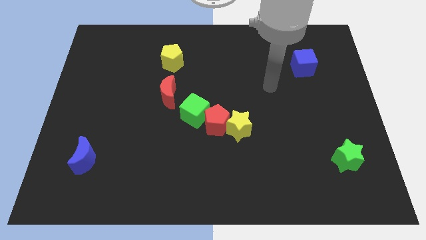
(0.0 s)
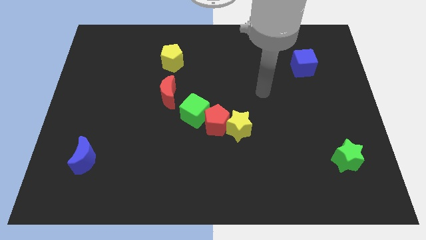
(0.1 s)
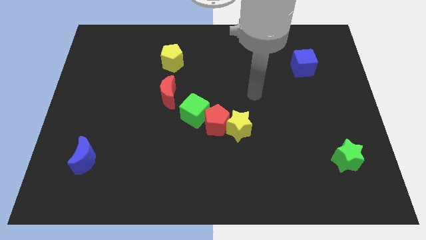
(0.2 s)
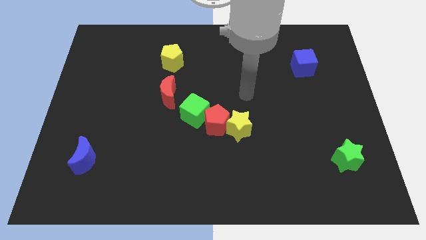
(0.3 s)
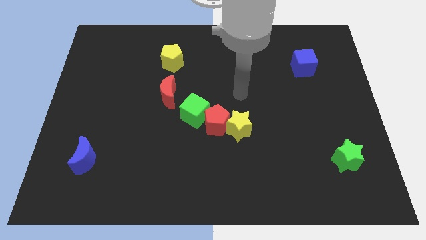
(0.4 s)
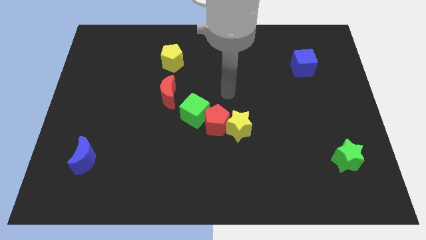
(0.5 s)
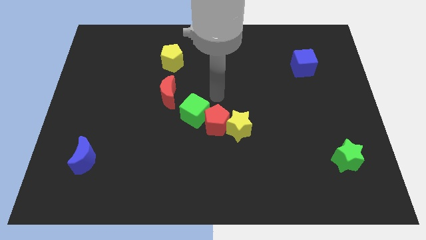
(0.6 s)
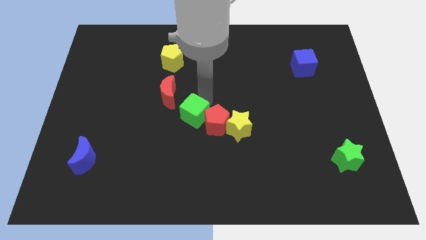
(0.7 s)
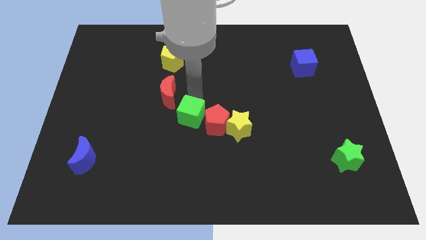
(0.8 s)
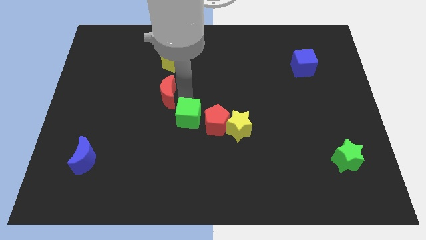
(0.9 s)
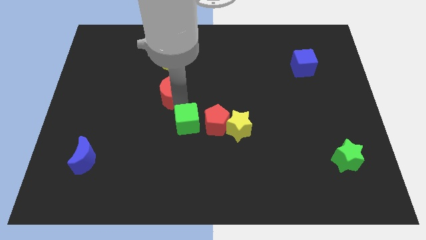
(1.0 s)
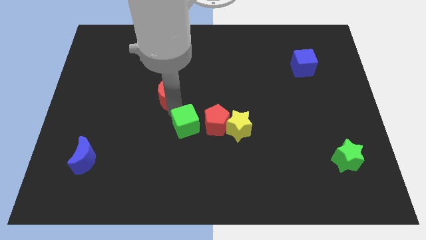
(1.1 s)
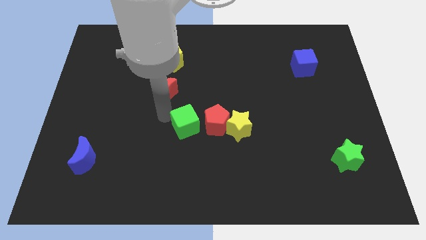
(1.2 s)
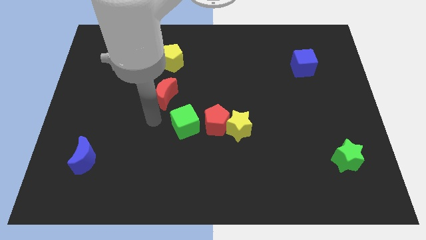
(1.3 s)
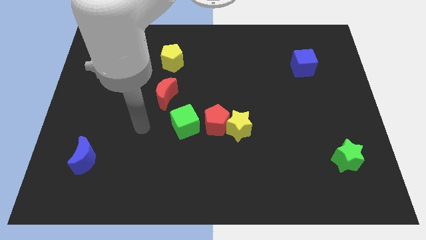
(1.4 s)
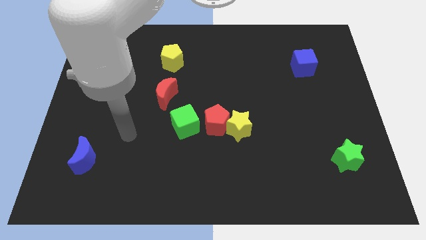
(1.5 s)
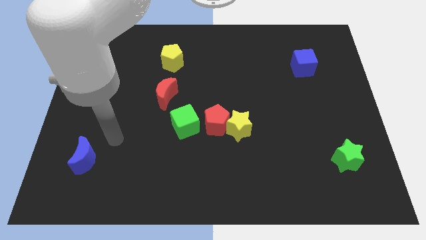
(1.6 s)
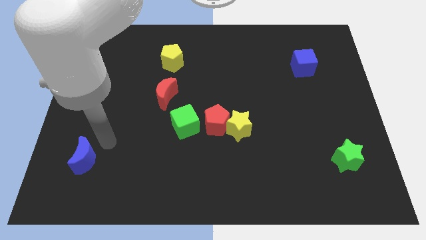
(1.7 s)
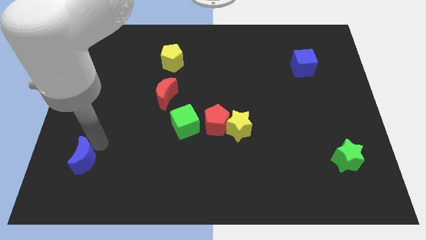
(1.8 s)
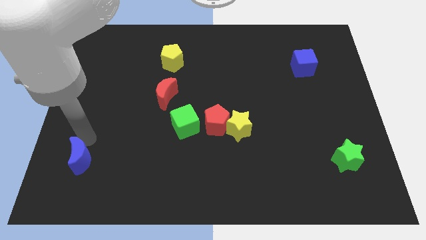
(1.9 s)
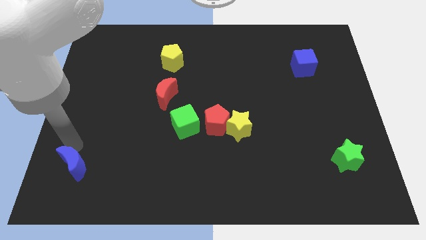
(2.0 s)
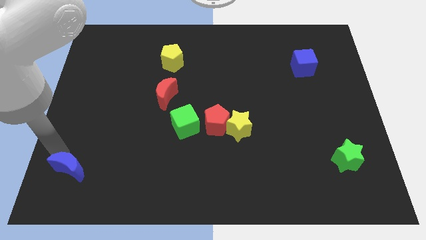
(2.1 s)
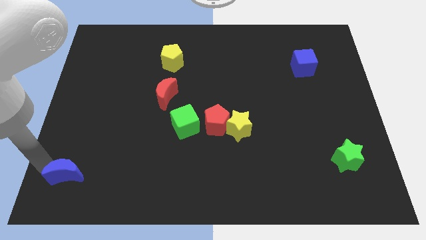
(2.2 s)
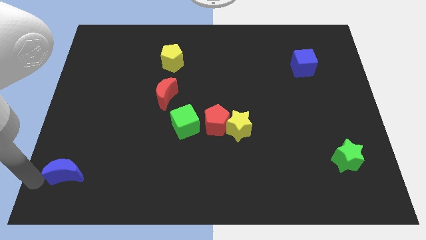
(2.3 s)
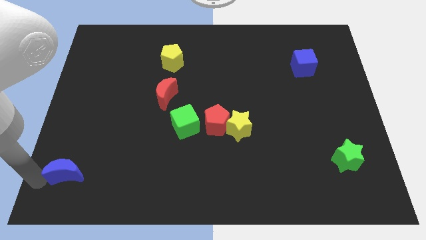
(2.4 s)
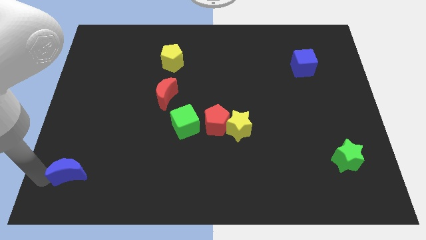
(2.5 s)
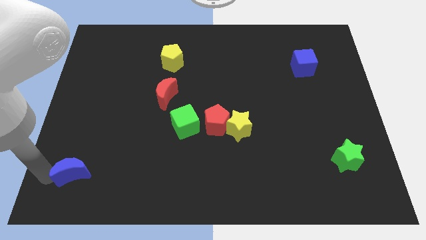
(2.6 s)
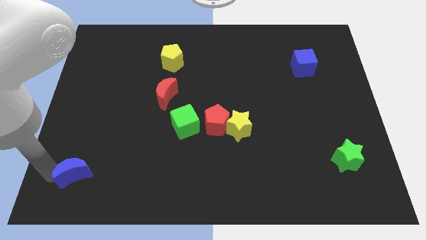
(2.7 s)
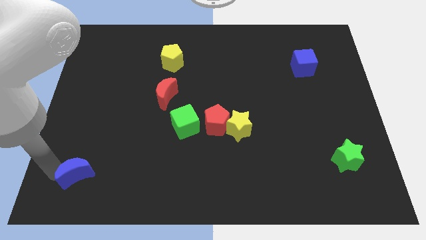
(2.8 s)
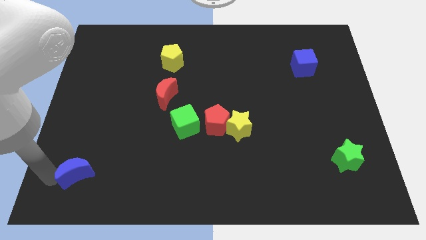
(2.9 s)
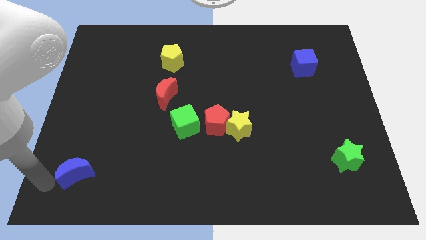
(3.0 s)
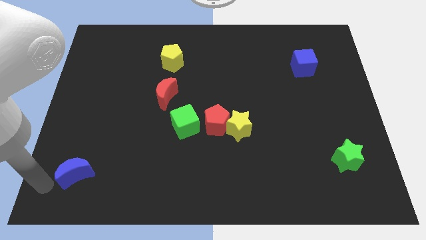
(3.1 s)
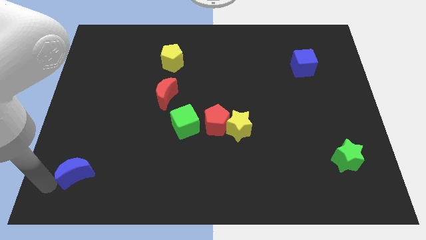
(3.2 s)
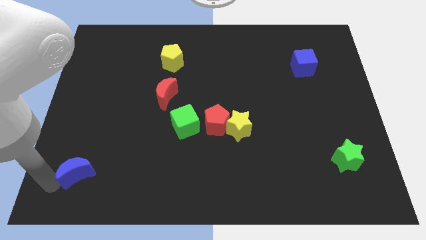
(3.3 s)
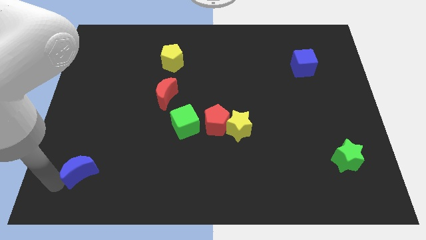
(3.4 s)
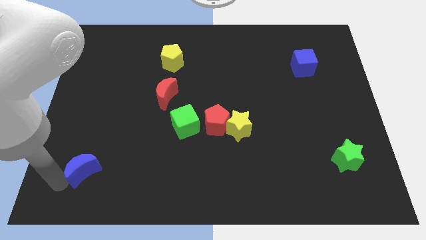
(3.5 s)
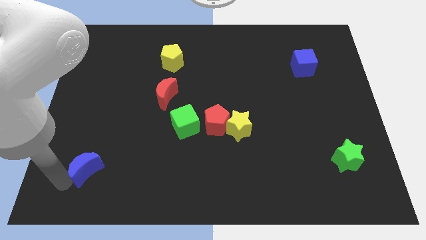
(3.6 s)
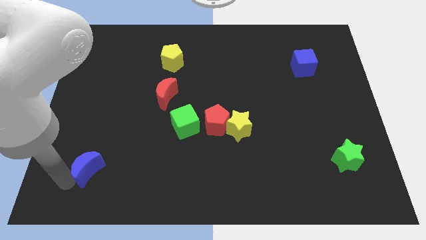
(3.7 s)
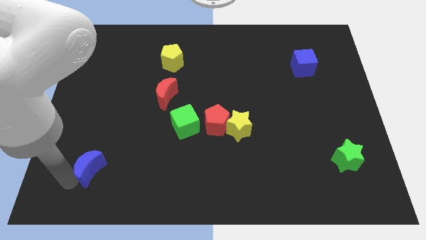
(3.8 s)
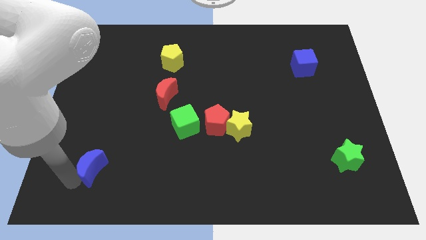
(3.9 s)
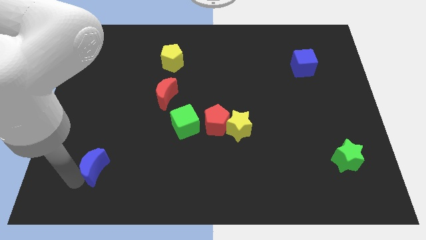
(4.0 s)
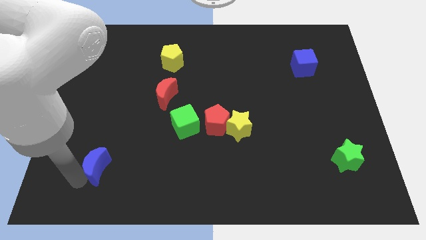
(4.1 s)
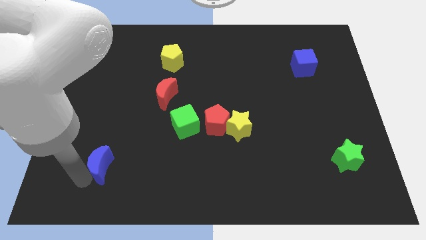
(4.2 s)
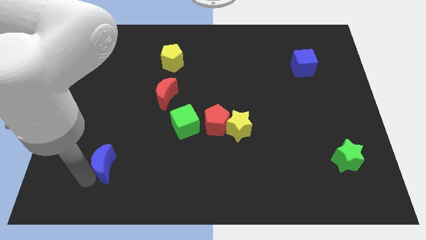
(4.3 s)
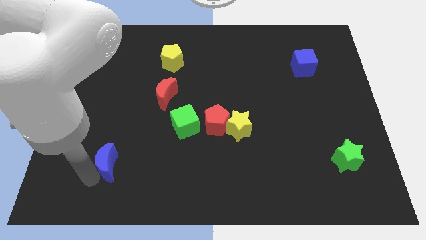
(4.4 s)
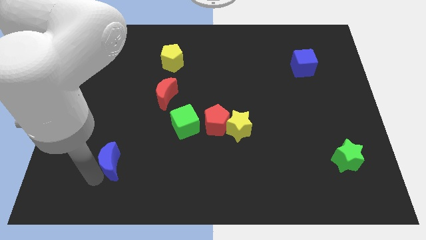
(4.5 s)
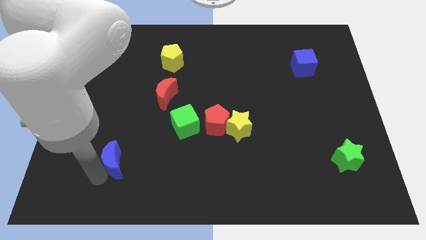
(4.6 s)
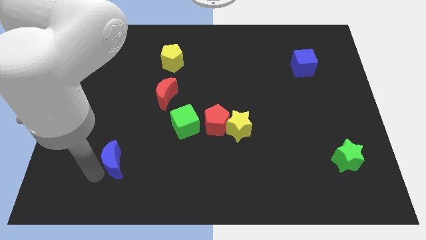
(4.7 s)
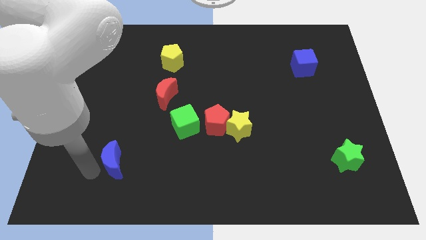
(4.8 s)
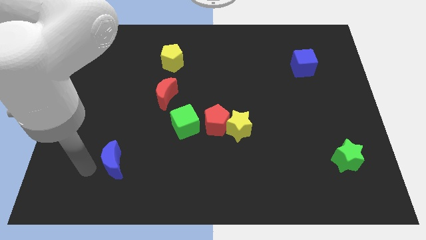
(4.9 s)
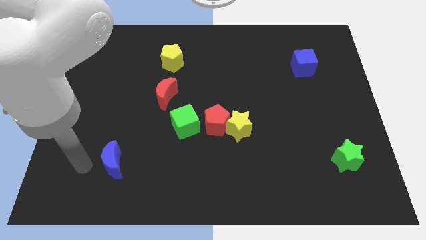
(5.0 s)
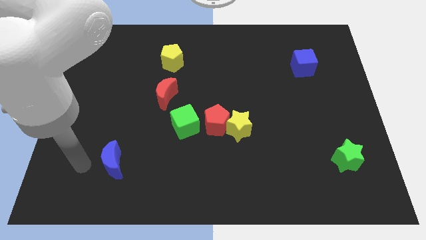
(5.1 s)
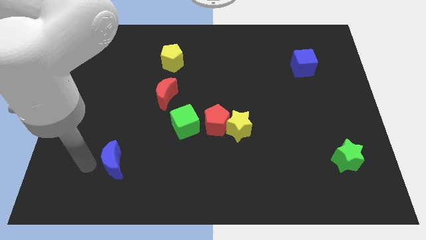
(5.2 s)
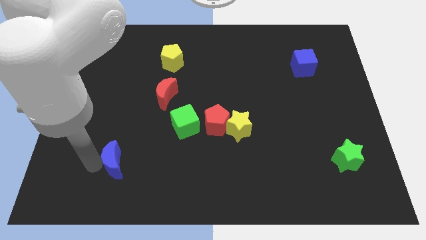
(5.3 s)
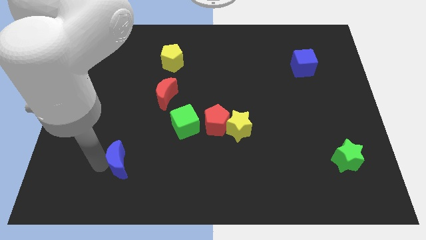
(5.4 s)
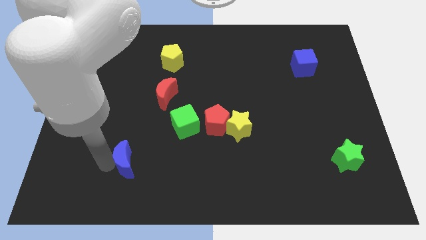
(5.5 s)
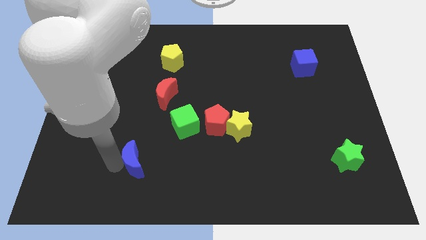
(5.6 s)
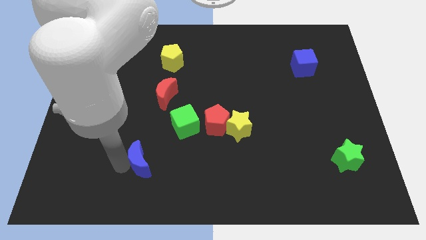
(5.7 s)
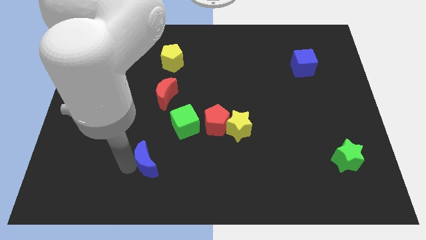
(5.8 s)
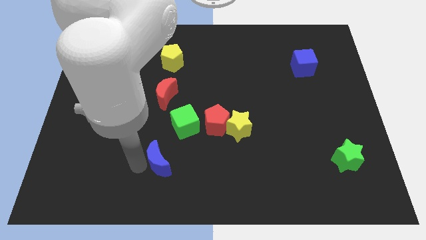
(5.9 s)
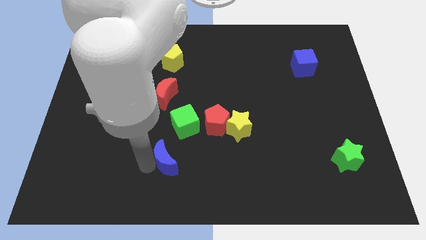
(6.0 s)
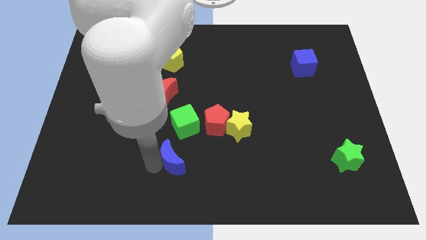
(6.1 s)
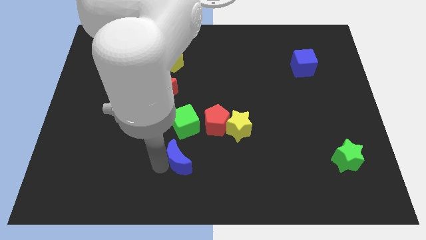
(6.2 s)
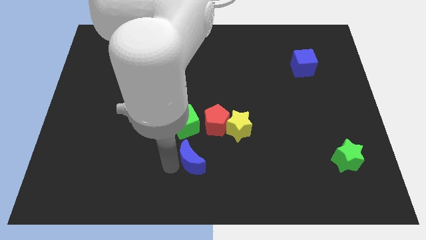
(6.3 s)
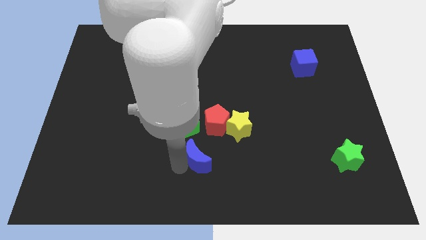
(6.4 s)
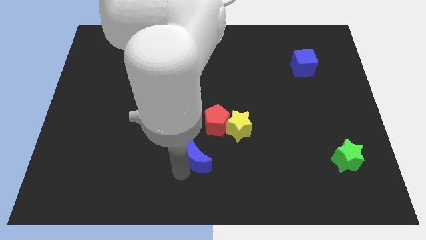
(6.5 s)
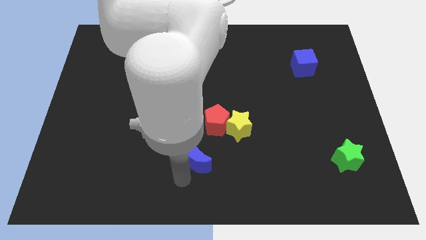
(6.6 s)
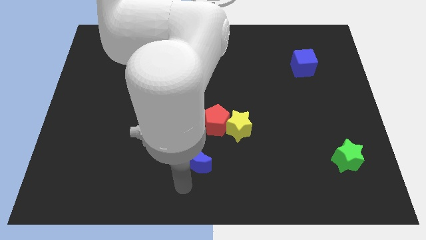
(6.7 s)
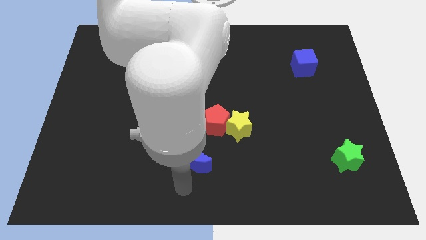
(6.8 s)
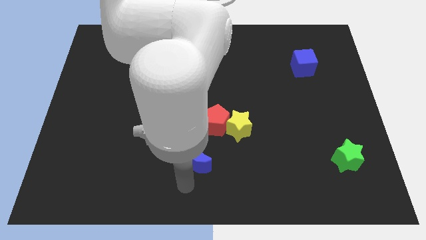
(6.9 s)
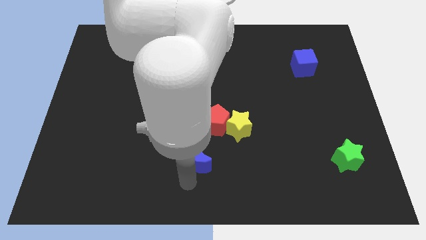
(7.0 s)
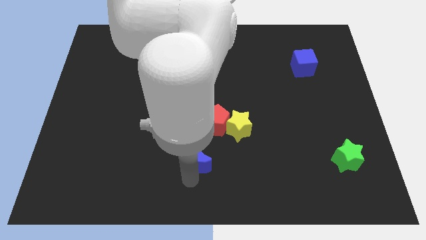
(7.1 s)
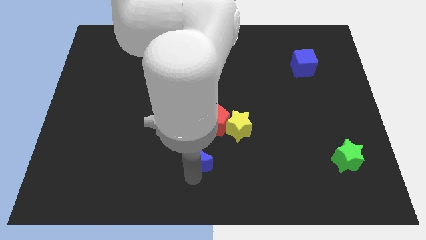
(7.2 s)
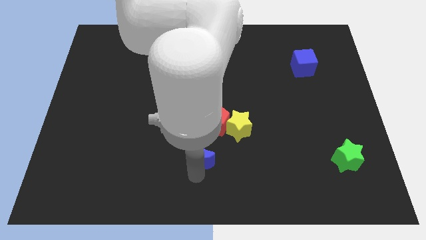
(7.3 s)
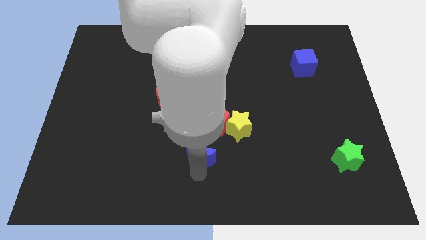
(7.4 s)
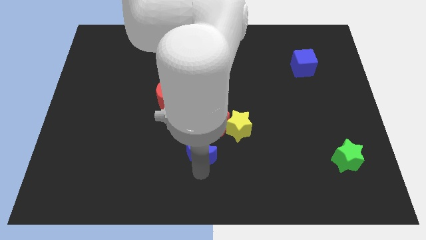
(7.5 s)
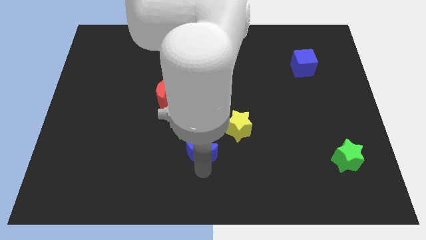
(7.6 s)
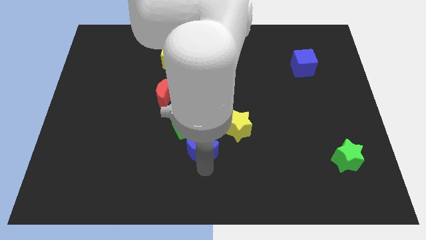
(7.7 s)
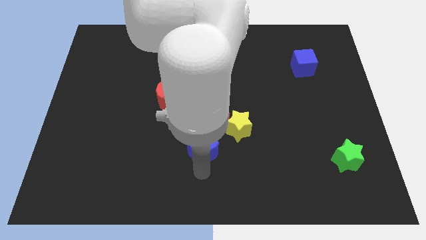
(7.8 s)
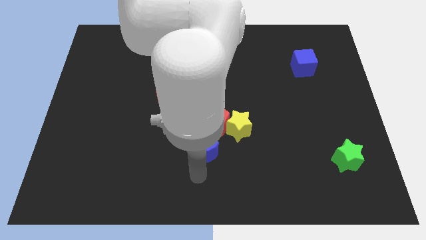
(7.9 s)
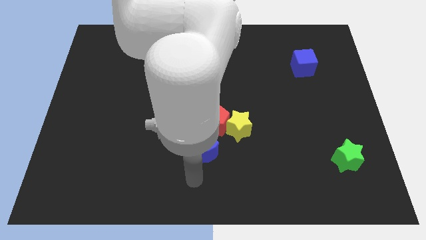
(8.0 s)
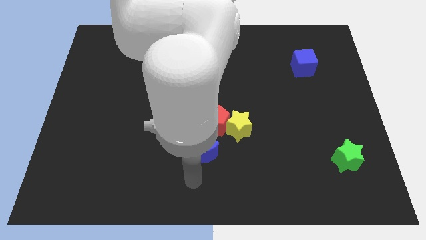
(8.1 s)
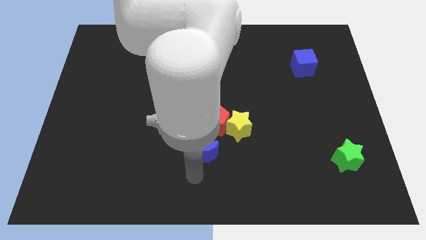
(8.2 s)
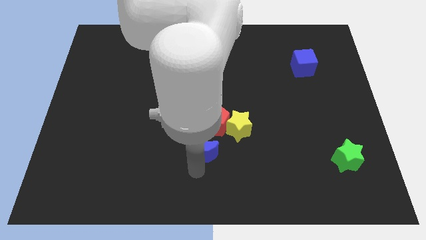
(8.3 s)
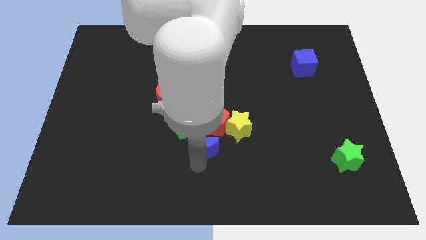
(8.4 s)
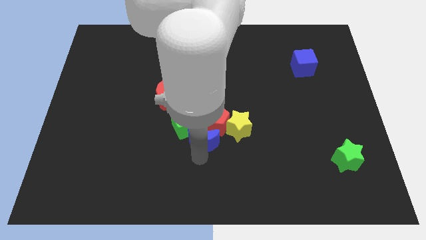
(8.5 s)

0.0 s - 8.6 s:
put the blue moon next to the red pentagon
